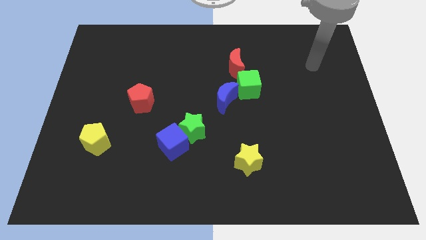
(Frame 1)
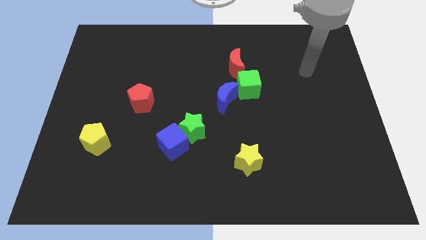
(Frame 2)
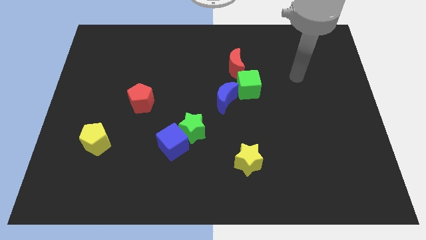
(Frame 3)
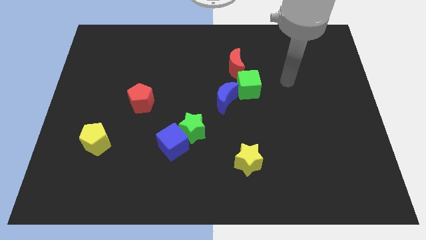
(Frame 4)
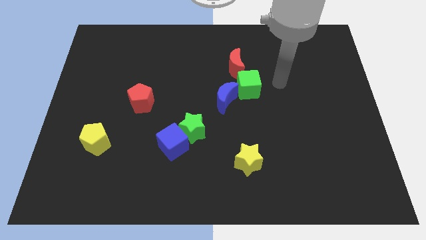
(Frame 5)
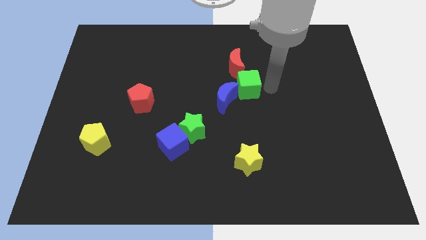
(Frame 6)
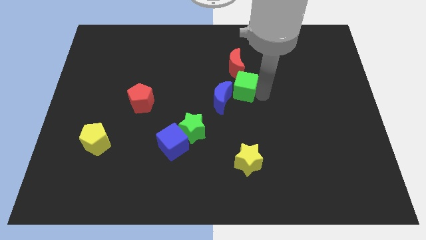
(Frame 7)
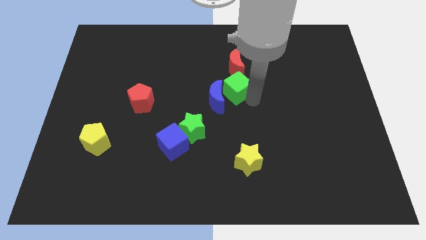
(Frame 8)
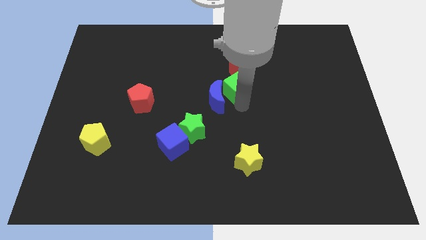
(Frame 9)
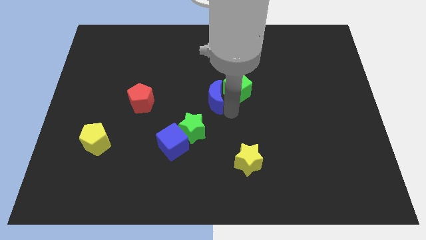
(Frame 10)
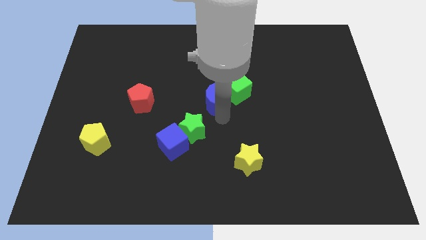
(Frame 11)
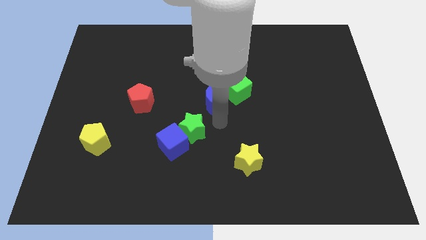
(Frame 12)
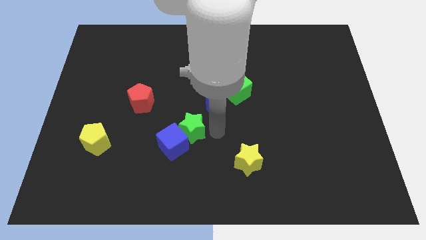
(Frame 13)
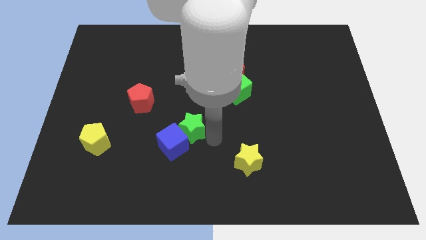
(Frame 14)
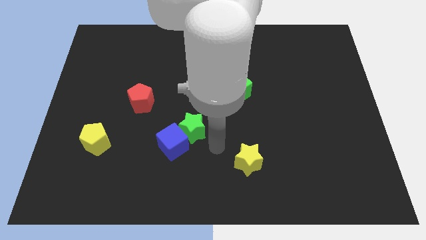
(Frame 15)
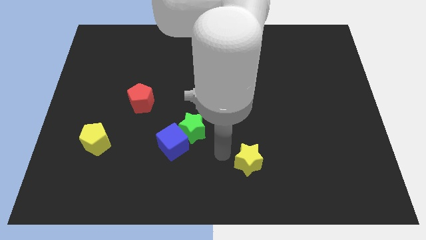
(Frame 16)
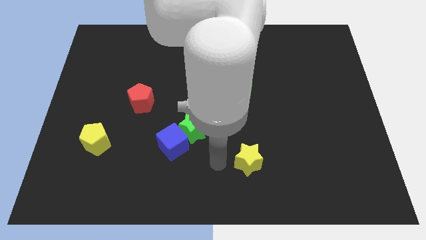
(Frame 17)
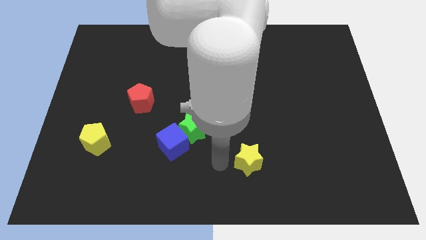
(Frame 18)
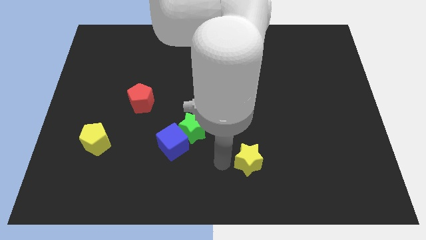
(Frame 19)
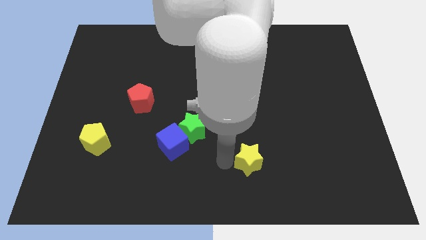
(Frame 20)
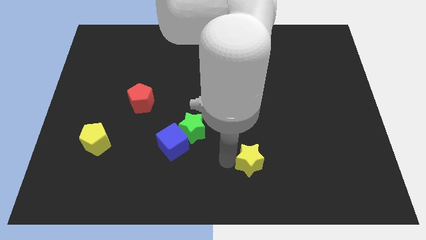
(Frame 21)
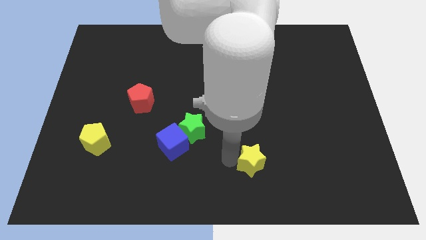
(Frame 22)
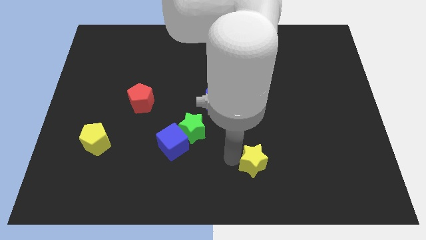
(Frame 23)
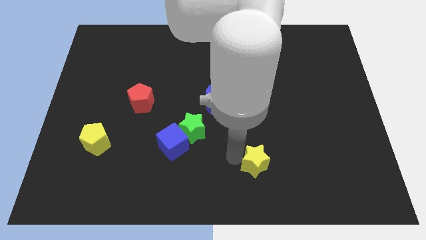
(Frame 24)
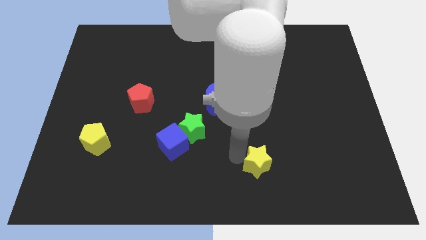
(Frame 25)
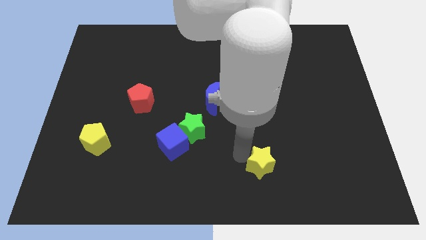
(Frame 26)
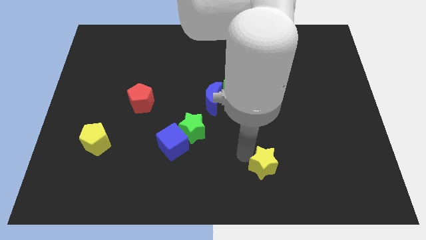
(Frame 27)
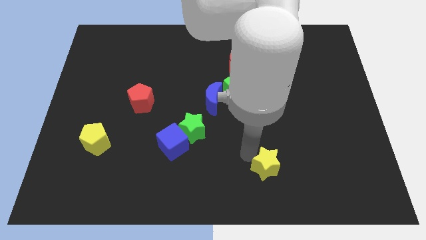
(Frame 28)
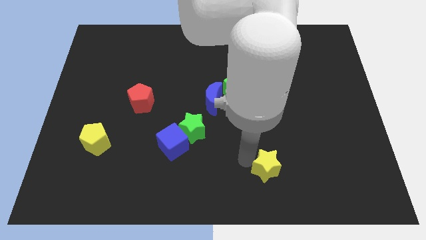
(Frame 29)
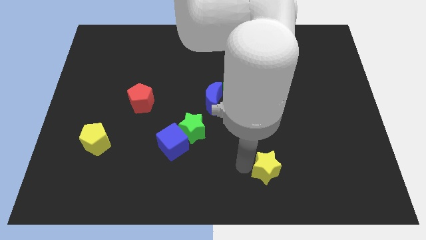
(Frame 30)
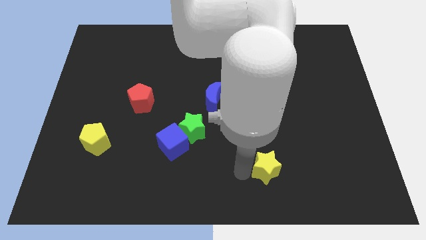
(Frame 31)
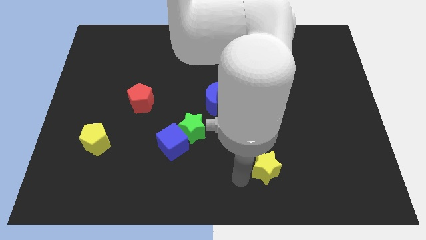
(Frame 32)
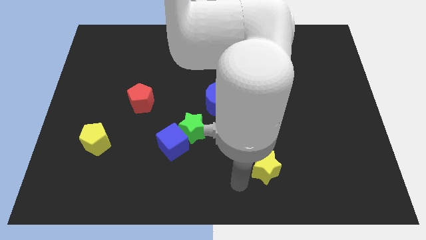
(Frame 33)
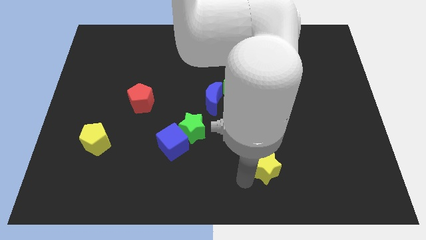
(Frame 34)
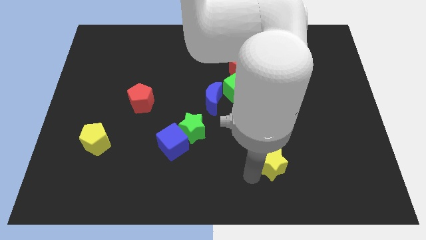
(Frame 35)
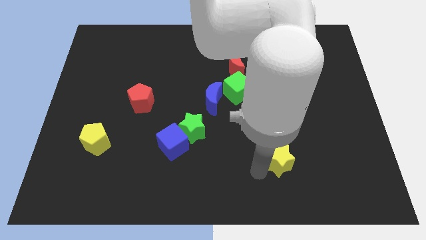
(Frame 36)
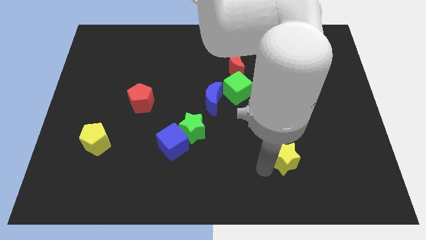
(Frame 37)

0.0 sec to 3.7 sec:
move the yellow star slightly right

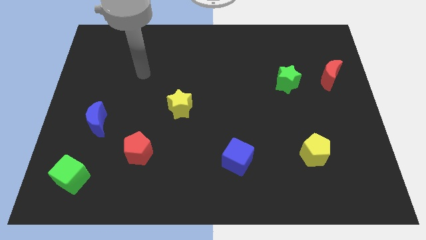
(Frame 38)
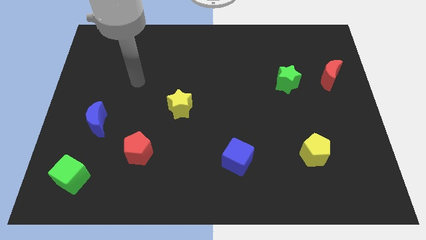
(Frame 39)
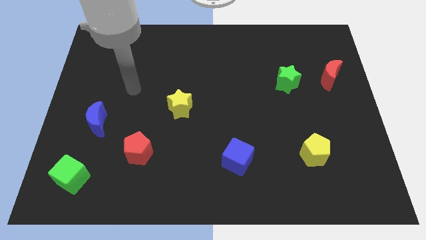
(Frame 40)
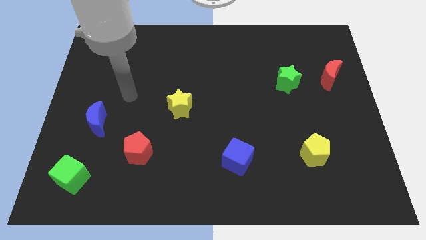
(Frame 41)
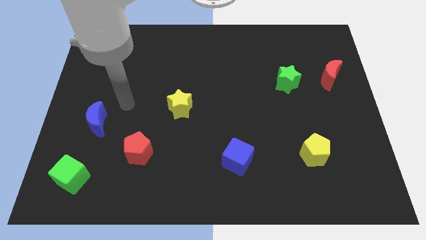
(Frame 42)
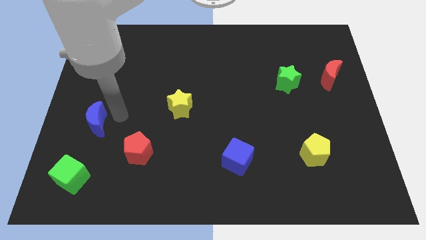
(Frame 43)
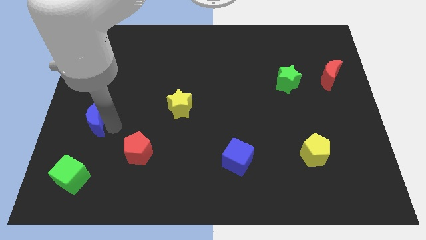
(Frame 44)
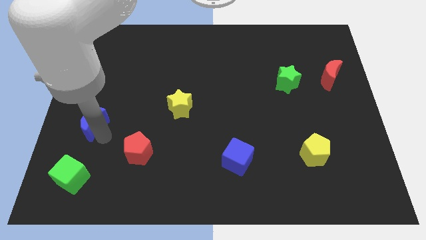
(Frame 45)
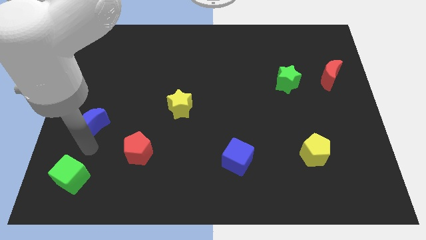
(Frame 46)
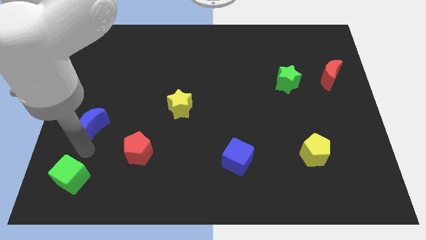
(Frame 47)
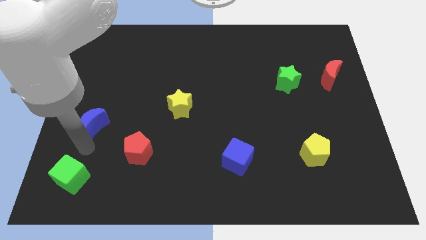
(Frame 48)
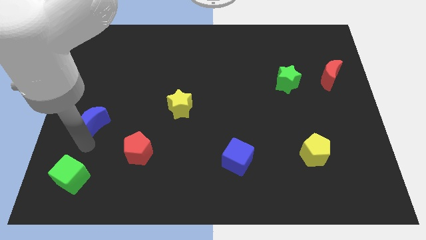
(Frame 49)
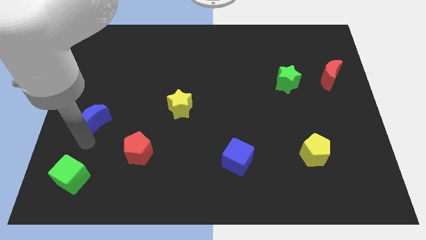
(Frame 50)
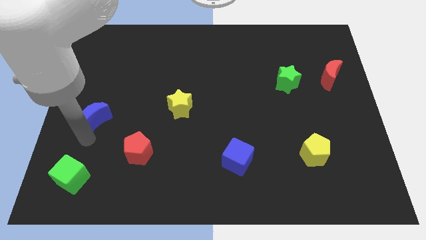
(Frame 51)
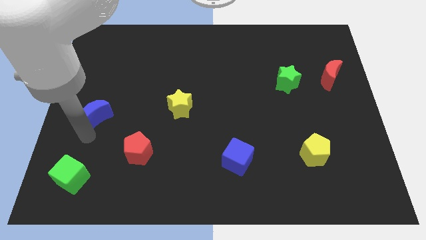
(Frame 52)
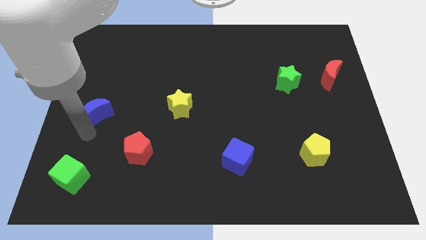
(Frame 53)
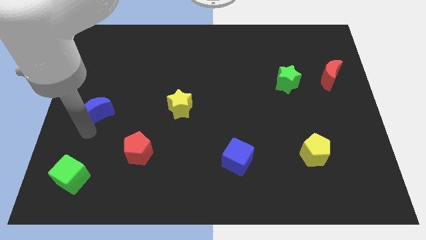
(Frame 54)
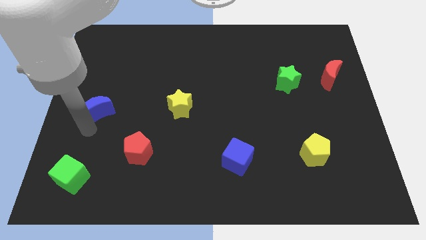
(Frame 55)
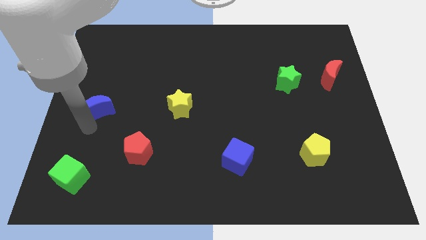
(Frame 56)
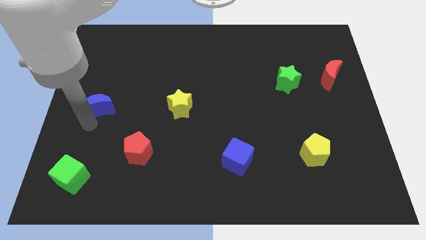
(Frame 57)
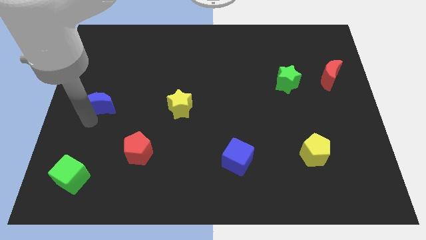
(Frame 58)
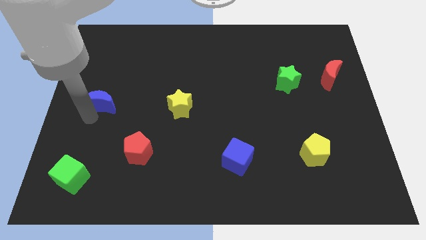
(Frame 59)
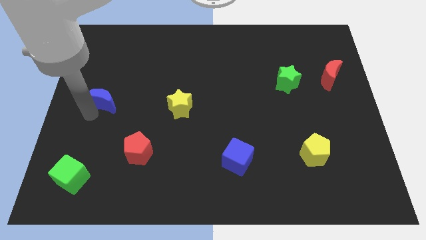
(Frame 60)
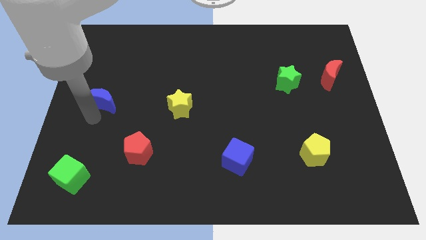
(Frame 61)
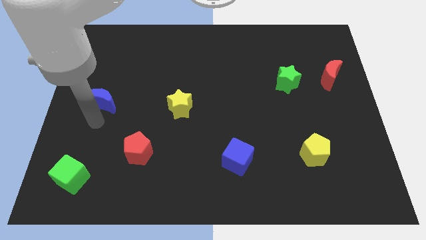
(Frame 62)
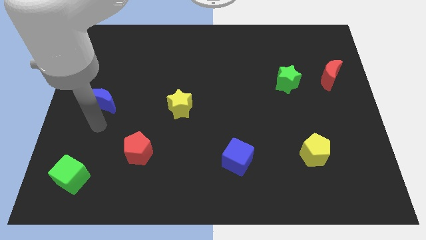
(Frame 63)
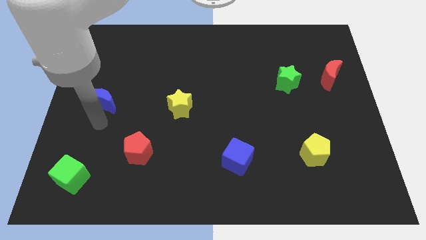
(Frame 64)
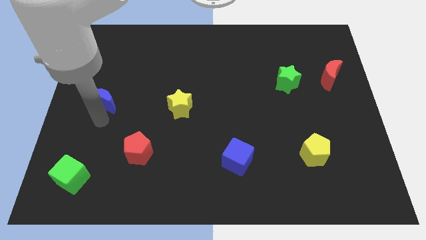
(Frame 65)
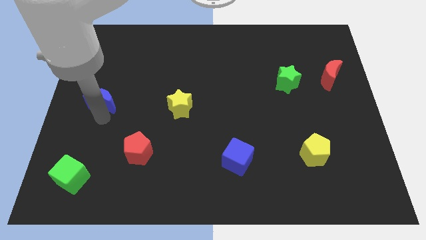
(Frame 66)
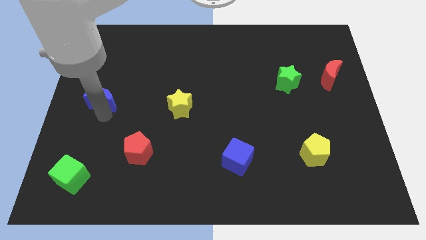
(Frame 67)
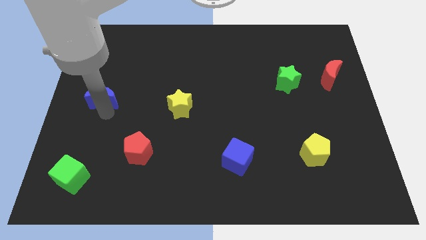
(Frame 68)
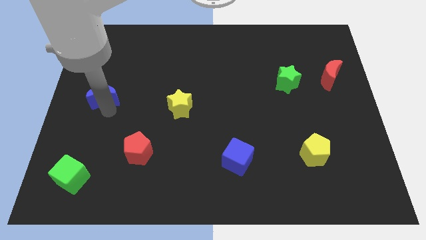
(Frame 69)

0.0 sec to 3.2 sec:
slightly slide the blue moon up

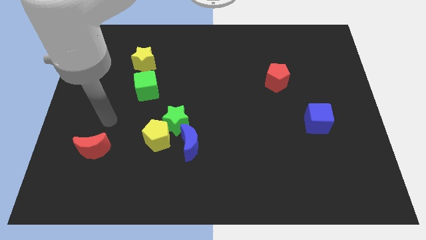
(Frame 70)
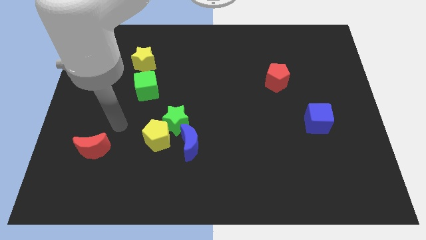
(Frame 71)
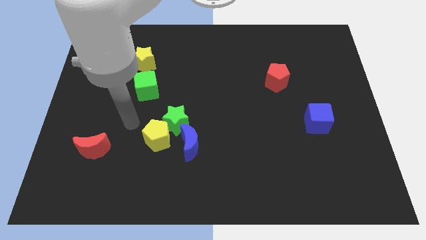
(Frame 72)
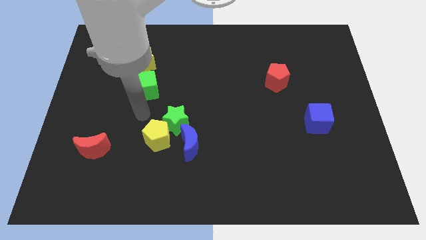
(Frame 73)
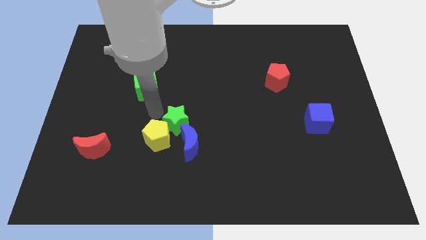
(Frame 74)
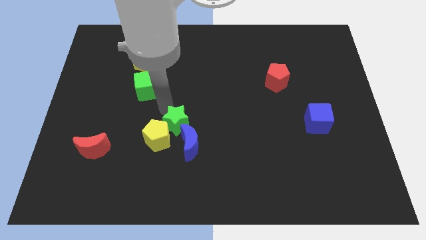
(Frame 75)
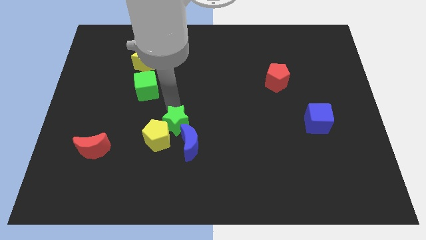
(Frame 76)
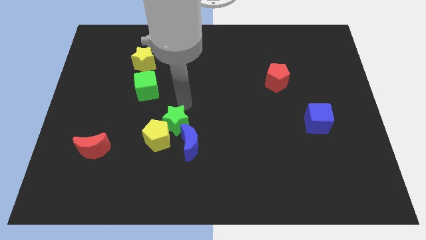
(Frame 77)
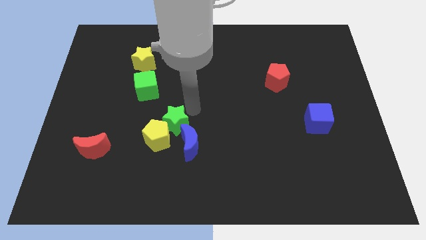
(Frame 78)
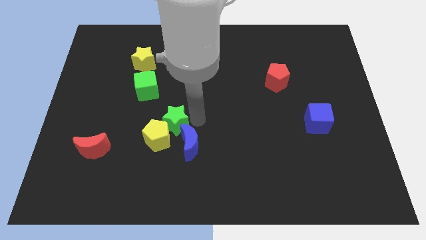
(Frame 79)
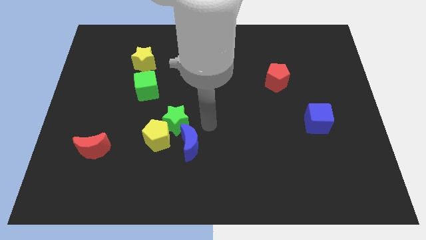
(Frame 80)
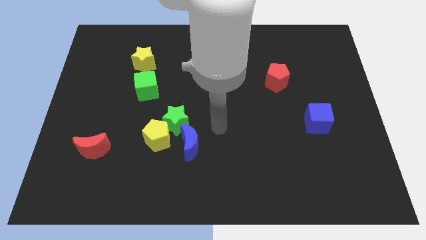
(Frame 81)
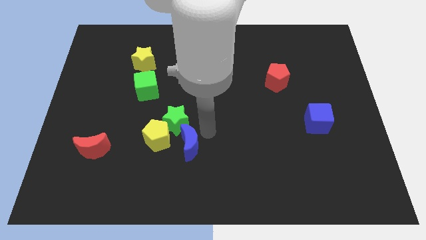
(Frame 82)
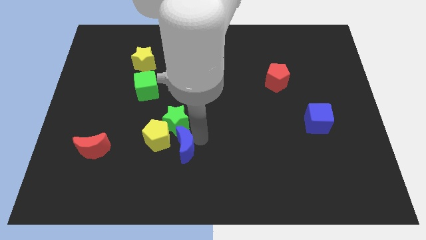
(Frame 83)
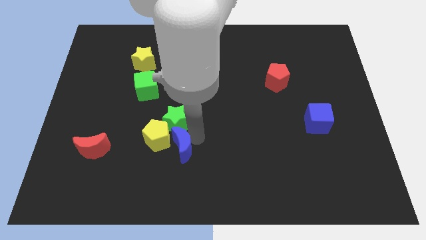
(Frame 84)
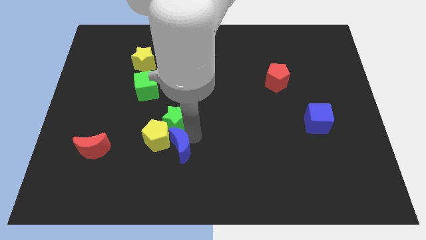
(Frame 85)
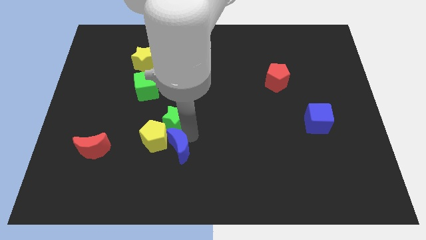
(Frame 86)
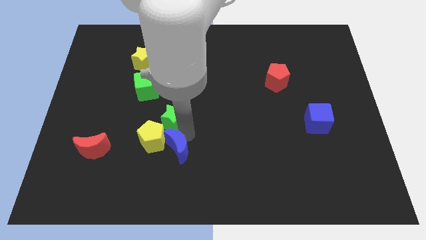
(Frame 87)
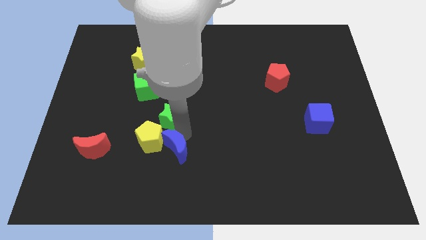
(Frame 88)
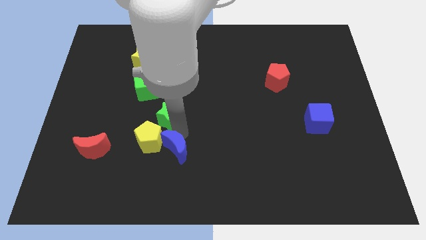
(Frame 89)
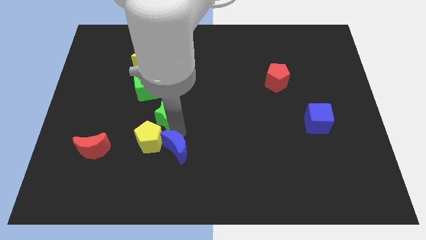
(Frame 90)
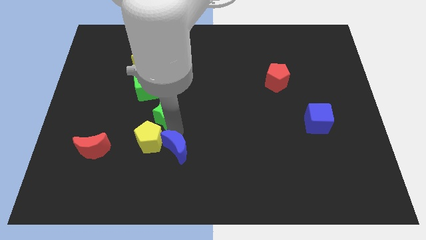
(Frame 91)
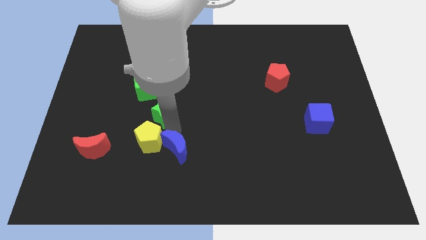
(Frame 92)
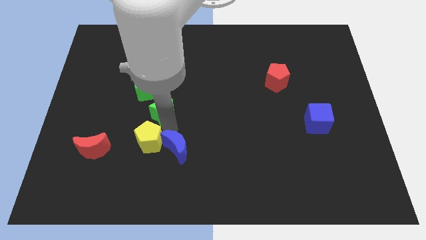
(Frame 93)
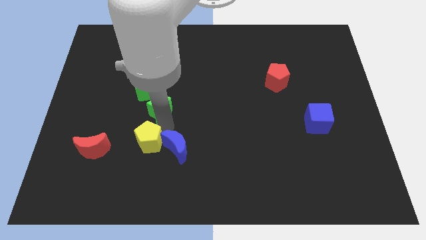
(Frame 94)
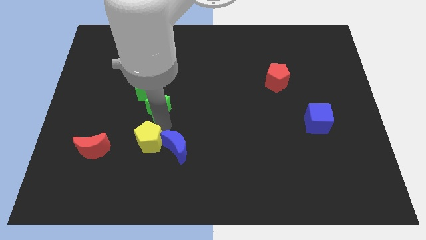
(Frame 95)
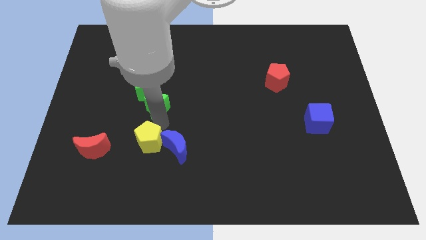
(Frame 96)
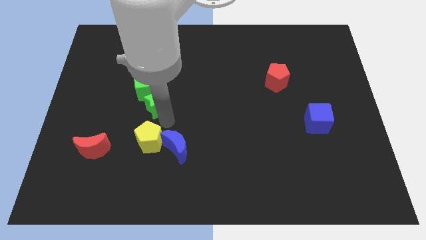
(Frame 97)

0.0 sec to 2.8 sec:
slightly slide the green star upwards and to the left diagonally
